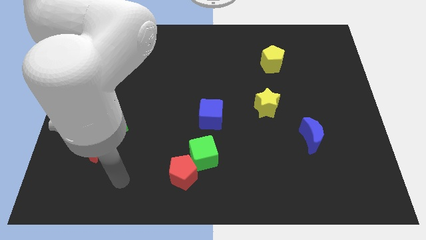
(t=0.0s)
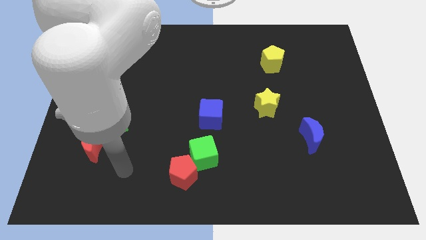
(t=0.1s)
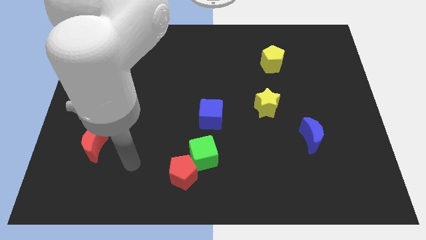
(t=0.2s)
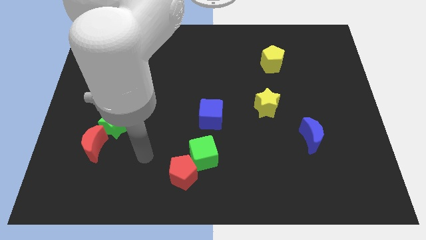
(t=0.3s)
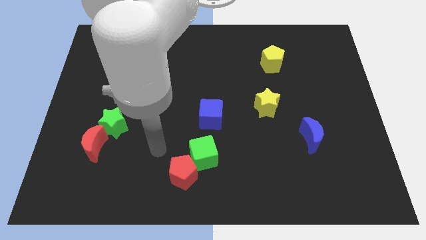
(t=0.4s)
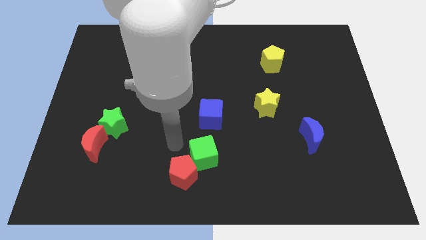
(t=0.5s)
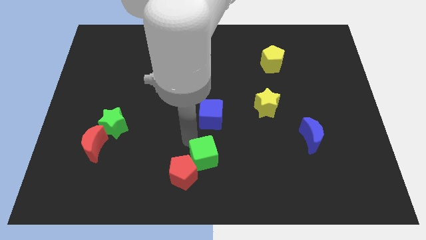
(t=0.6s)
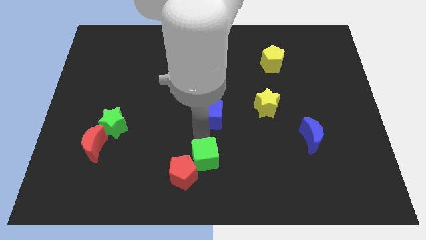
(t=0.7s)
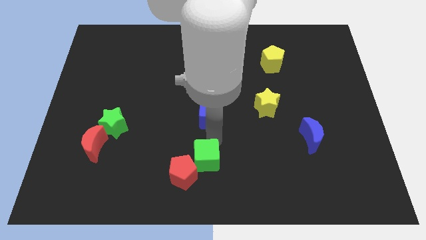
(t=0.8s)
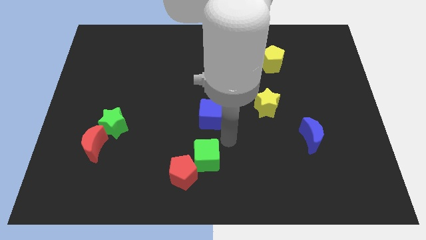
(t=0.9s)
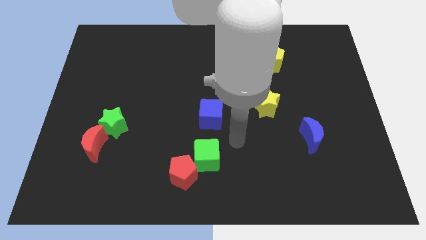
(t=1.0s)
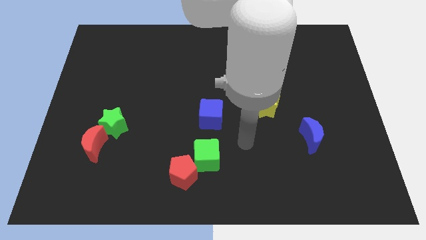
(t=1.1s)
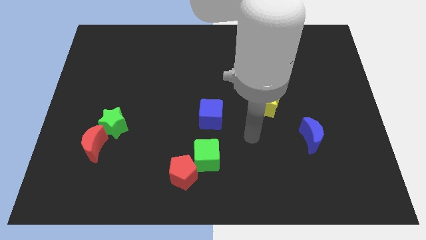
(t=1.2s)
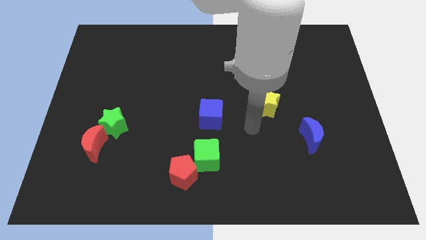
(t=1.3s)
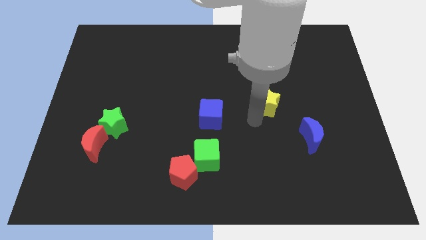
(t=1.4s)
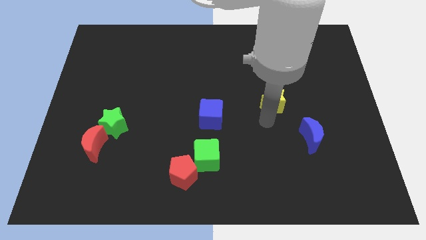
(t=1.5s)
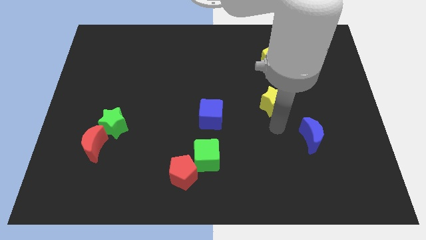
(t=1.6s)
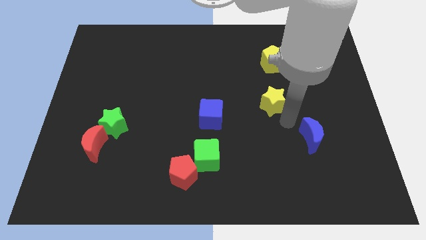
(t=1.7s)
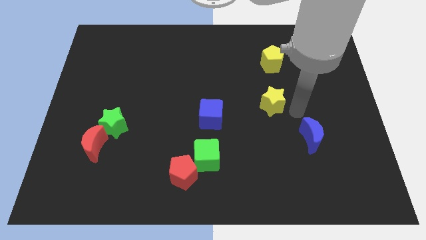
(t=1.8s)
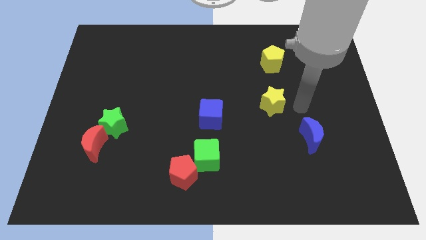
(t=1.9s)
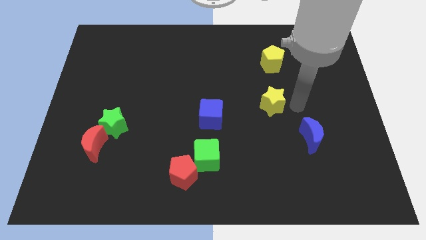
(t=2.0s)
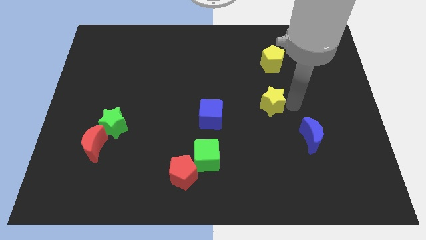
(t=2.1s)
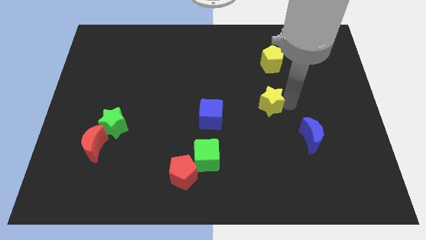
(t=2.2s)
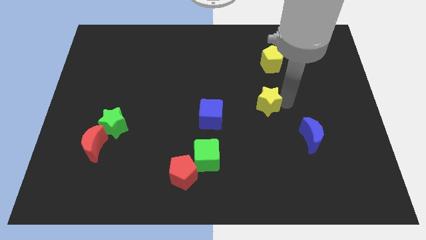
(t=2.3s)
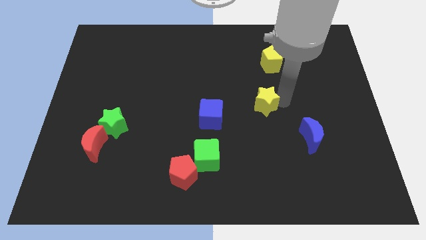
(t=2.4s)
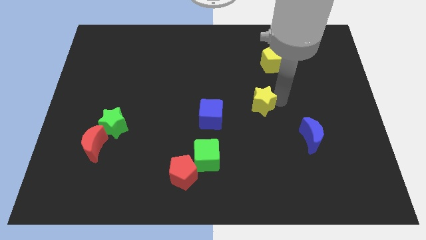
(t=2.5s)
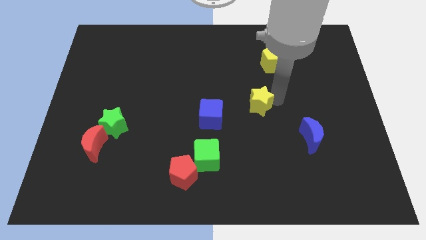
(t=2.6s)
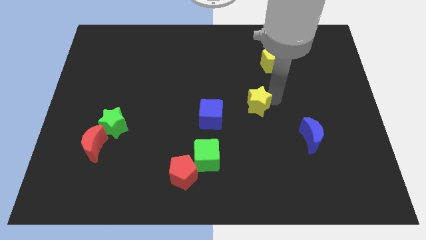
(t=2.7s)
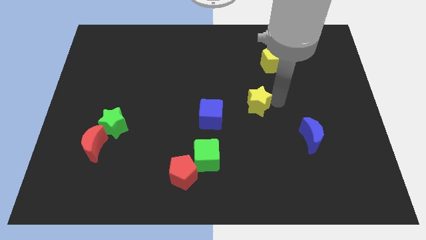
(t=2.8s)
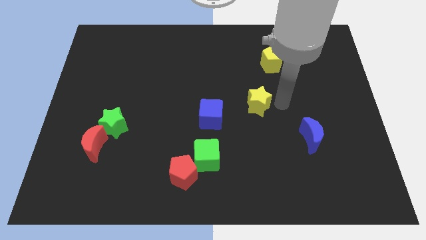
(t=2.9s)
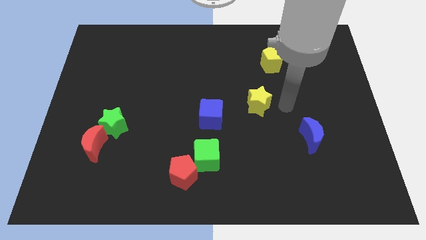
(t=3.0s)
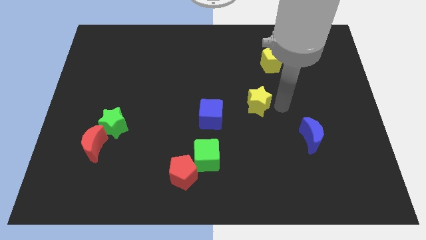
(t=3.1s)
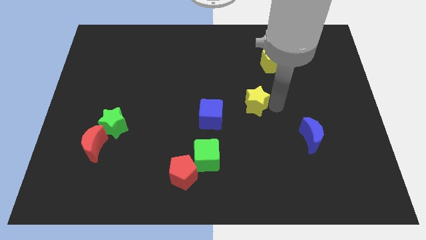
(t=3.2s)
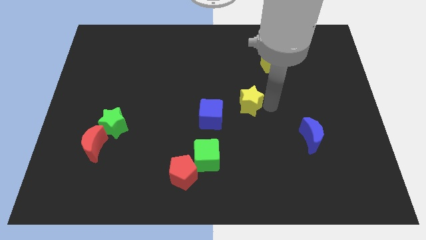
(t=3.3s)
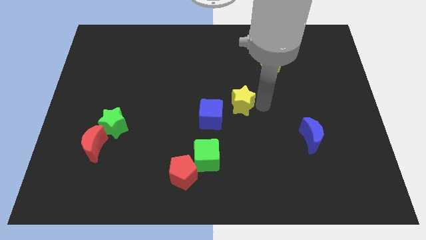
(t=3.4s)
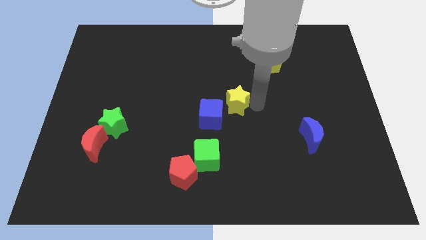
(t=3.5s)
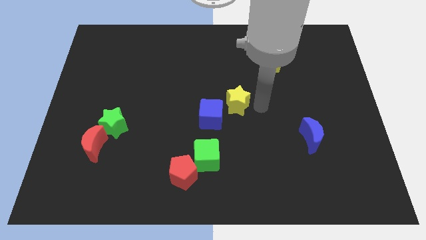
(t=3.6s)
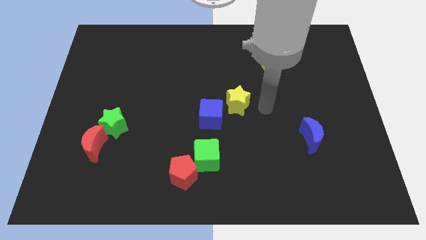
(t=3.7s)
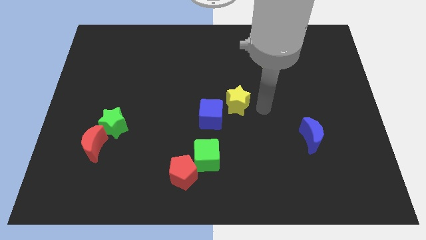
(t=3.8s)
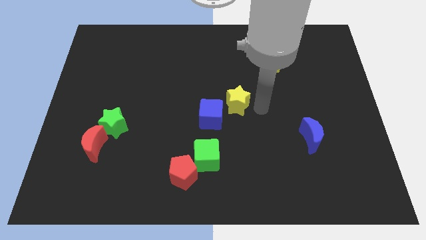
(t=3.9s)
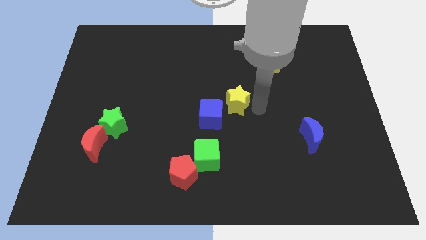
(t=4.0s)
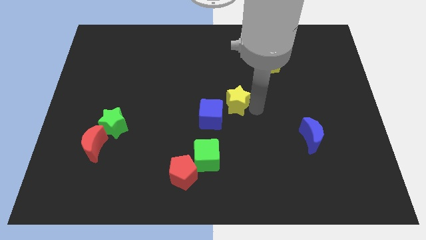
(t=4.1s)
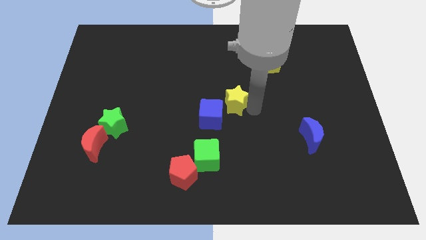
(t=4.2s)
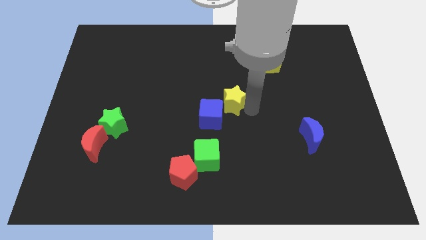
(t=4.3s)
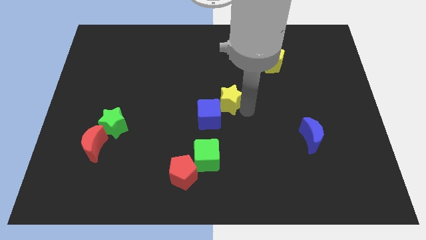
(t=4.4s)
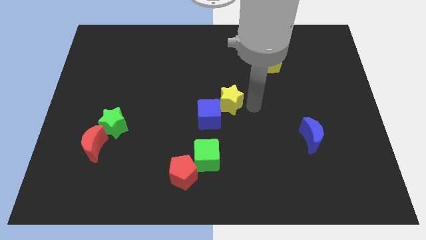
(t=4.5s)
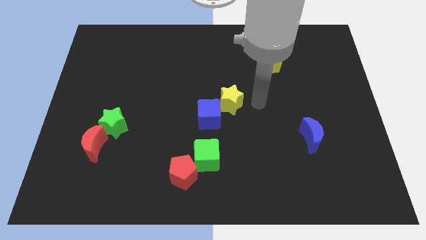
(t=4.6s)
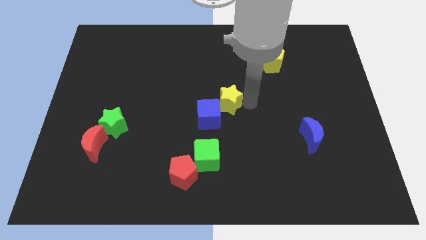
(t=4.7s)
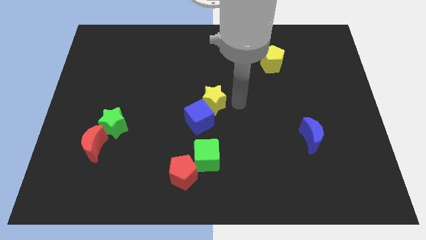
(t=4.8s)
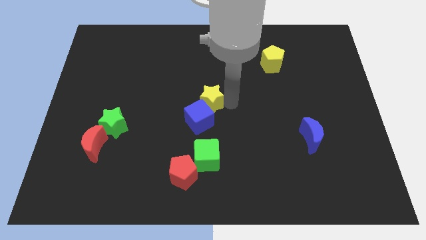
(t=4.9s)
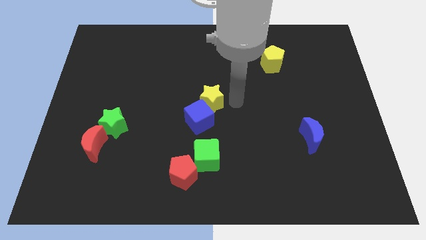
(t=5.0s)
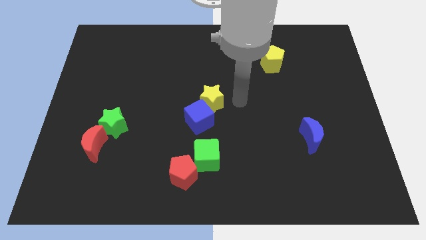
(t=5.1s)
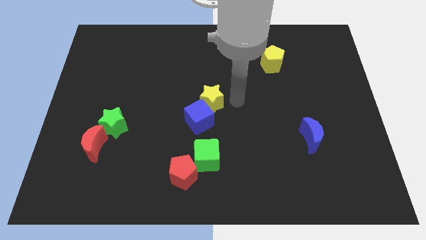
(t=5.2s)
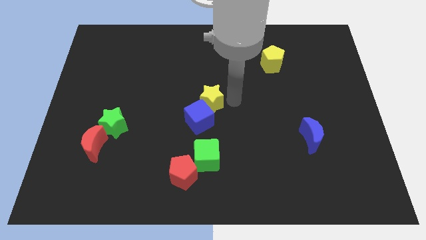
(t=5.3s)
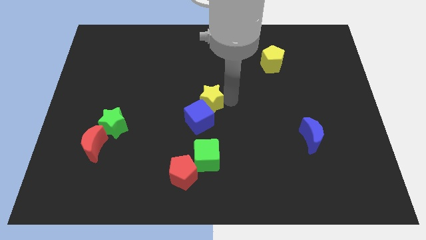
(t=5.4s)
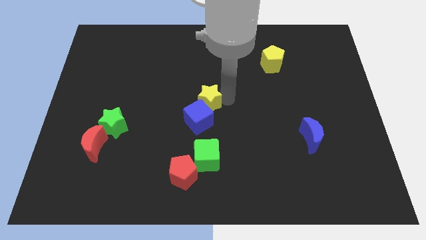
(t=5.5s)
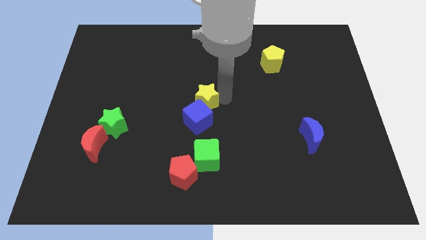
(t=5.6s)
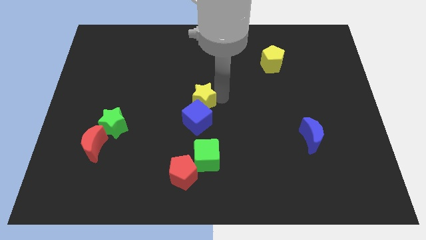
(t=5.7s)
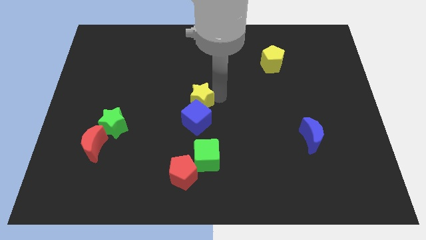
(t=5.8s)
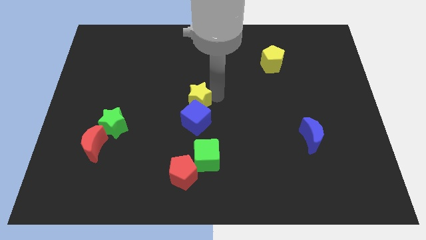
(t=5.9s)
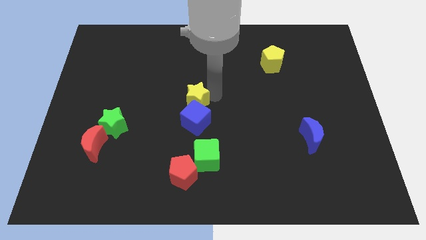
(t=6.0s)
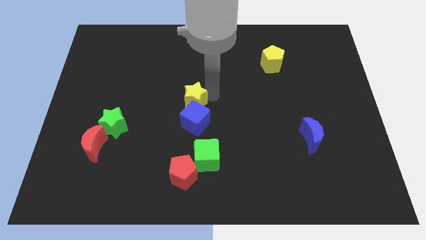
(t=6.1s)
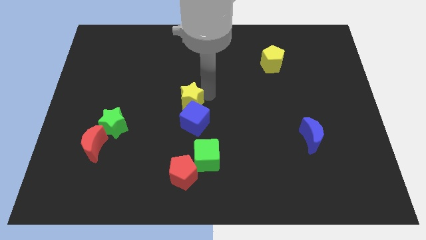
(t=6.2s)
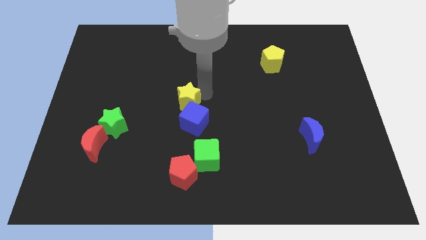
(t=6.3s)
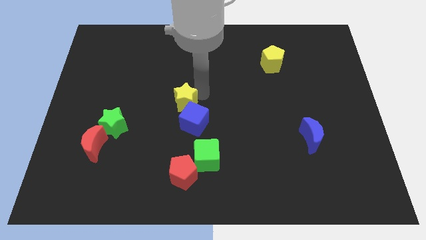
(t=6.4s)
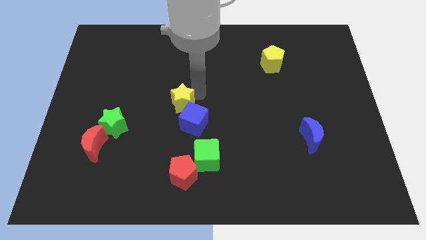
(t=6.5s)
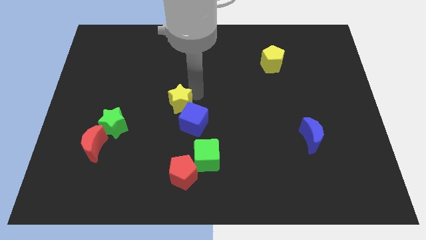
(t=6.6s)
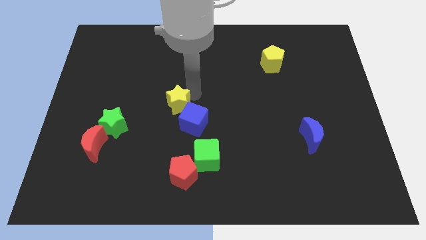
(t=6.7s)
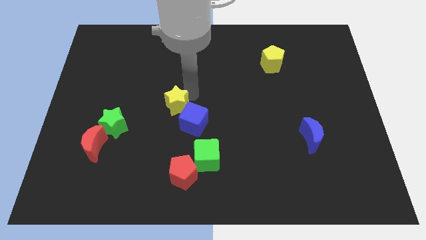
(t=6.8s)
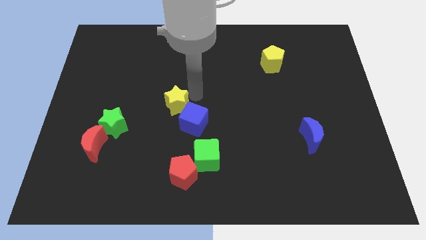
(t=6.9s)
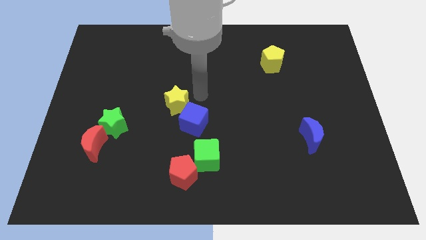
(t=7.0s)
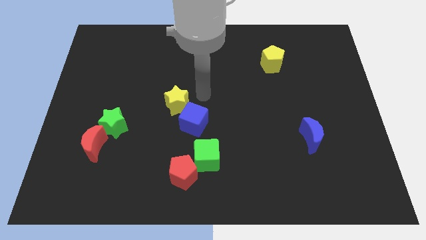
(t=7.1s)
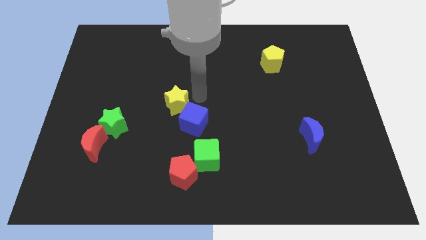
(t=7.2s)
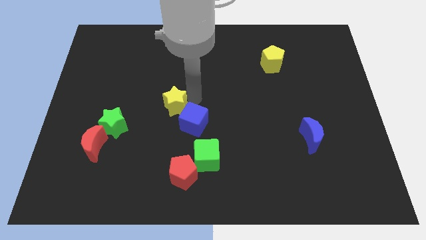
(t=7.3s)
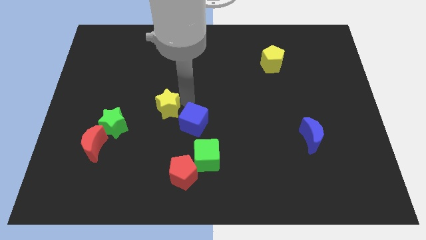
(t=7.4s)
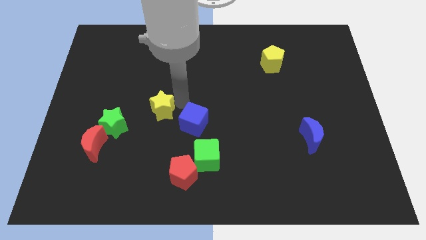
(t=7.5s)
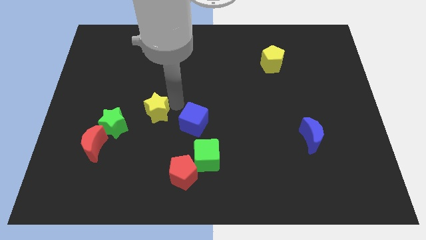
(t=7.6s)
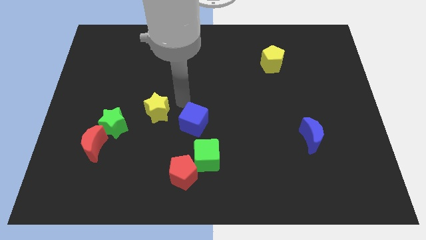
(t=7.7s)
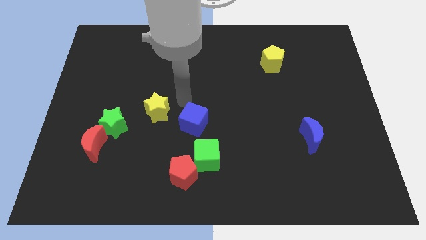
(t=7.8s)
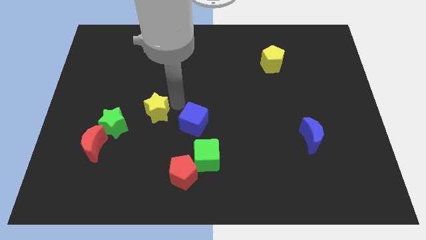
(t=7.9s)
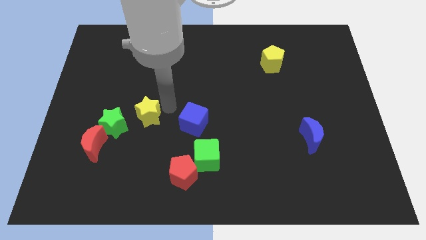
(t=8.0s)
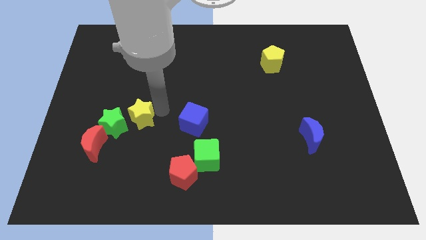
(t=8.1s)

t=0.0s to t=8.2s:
put the yellow star to the top right side of the red moon
